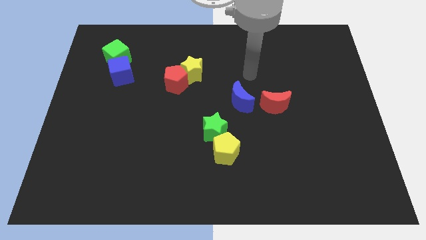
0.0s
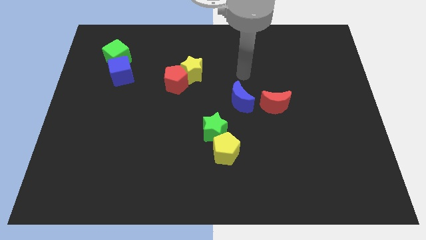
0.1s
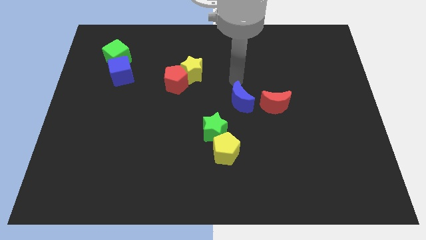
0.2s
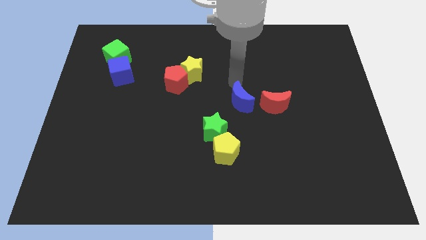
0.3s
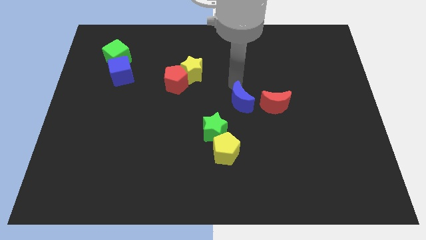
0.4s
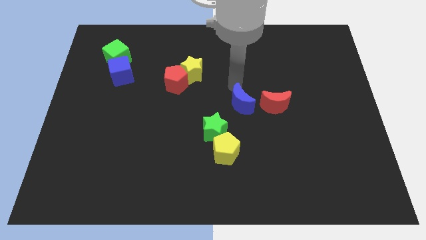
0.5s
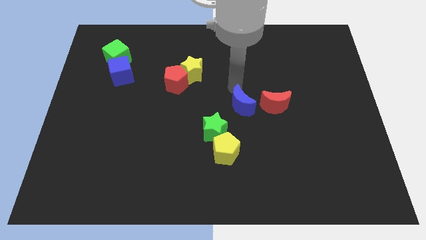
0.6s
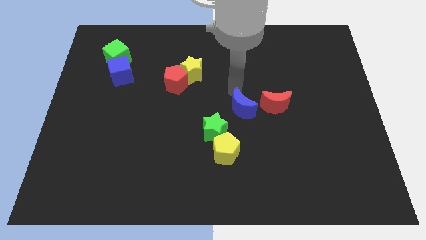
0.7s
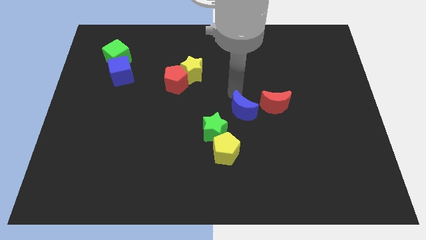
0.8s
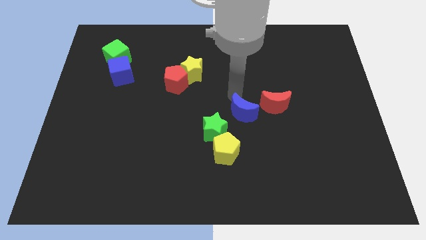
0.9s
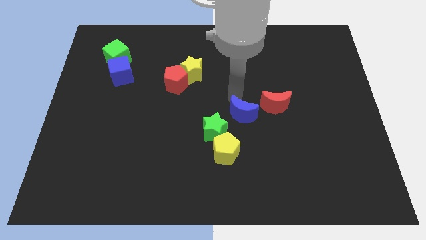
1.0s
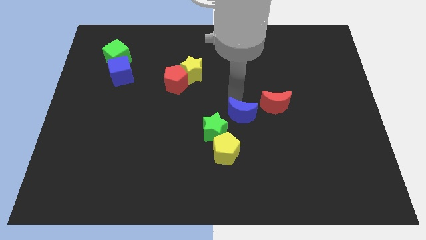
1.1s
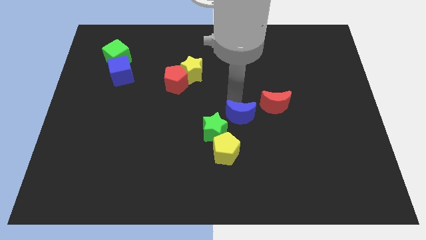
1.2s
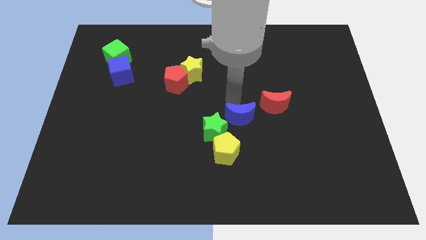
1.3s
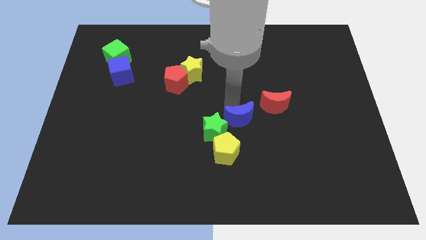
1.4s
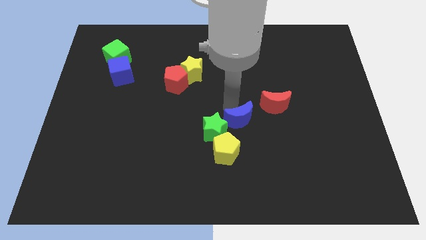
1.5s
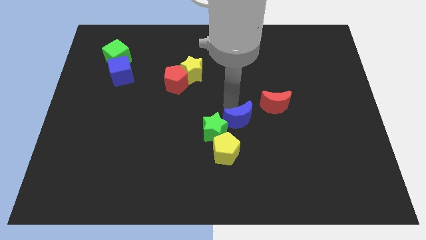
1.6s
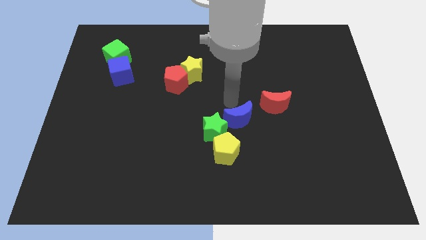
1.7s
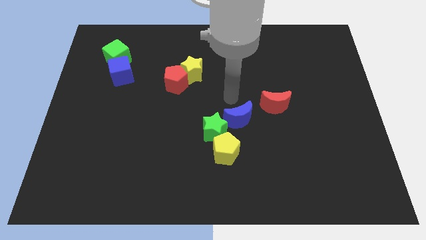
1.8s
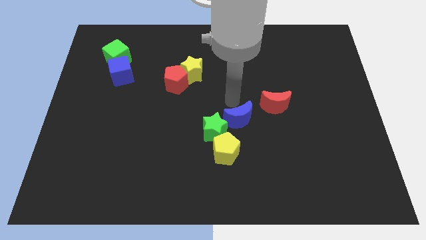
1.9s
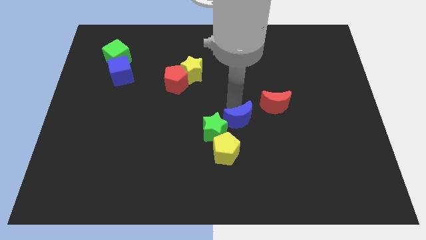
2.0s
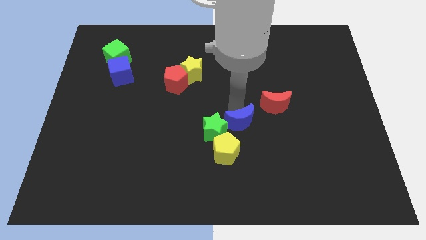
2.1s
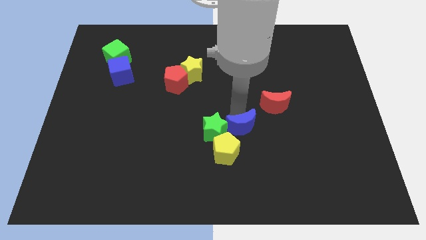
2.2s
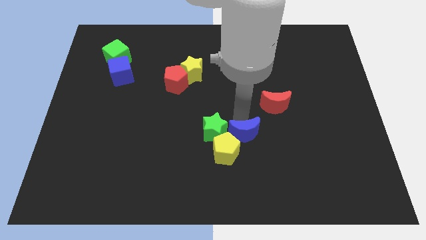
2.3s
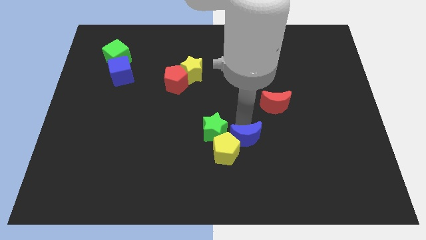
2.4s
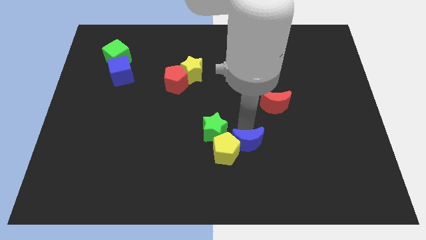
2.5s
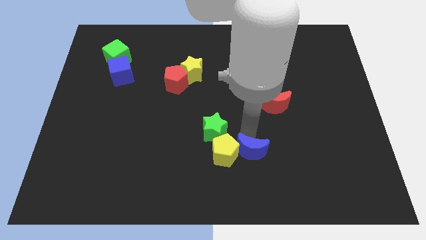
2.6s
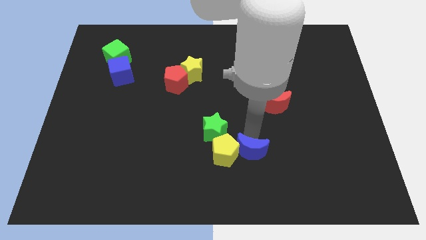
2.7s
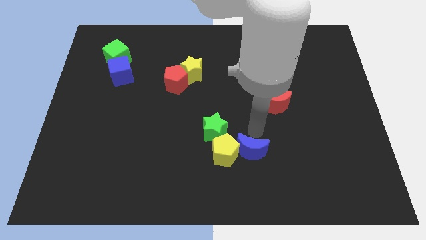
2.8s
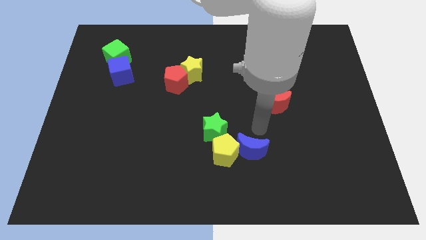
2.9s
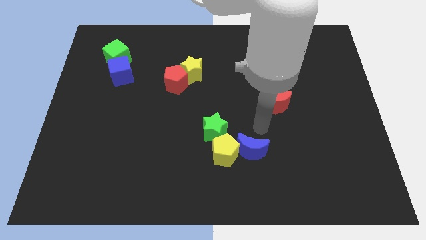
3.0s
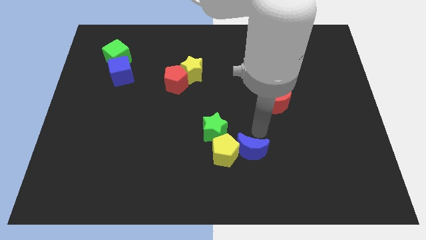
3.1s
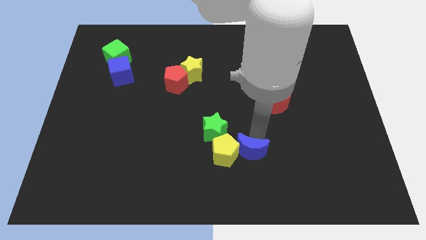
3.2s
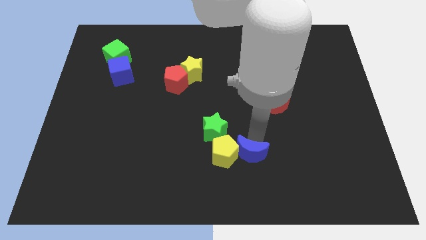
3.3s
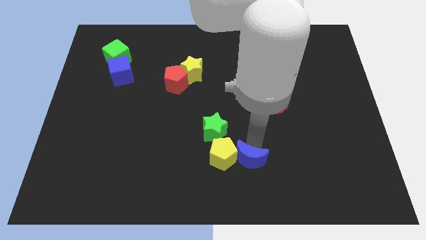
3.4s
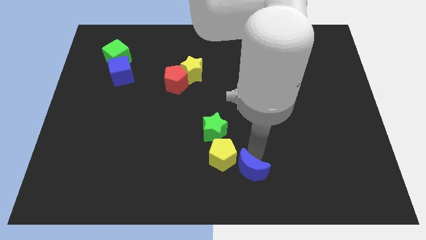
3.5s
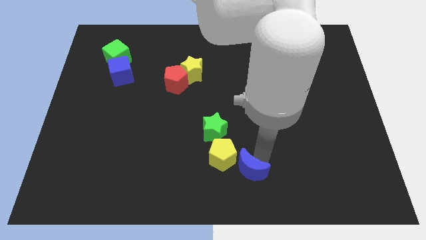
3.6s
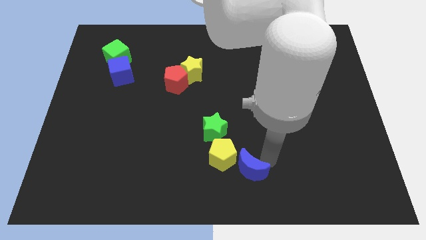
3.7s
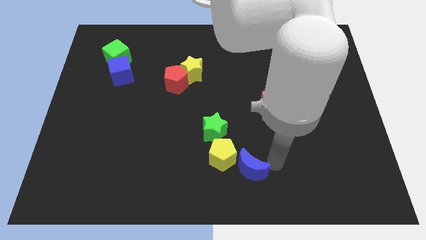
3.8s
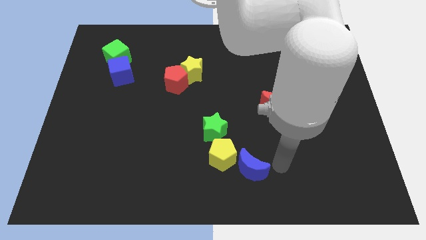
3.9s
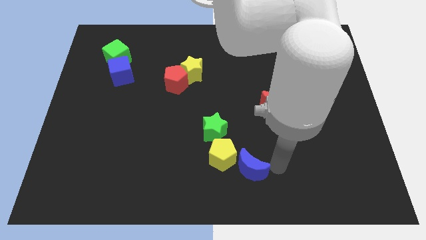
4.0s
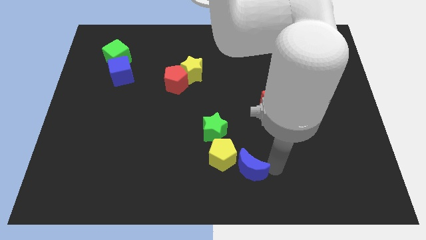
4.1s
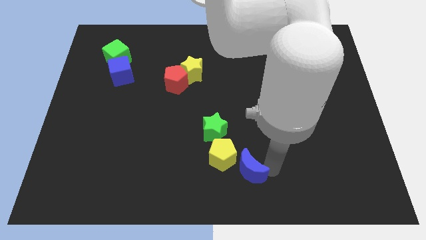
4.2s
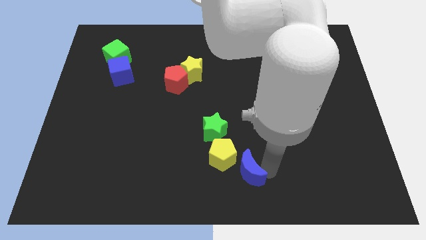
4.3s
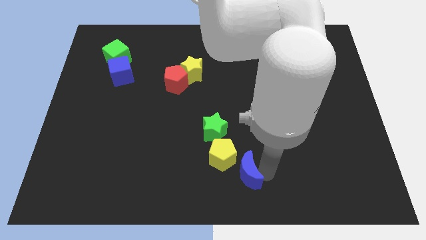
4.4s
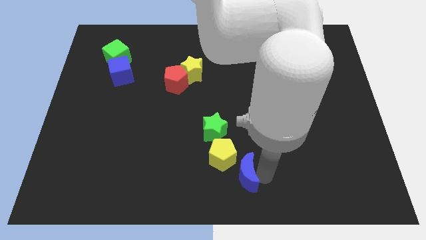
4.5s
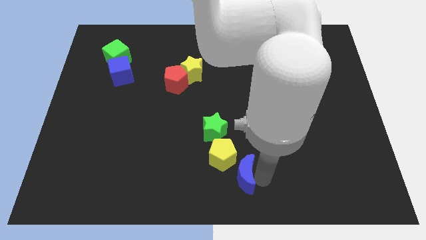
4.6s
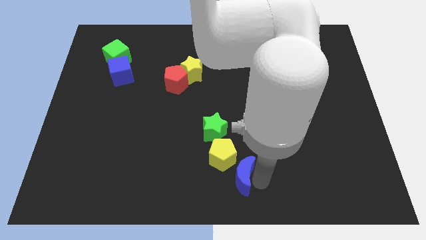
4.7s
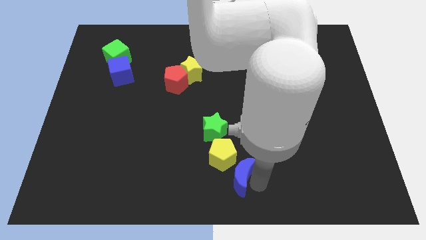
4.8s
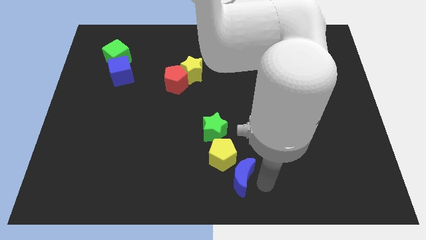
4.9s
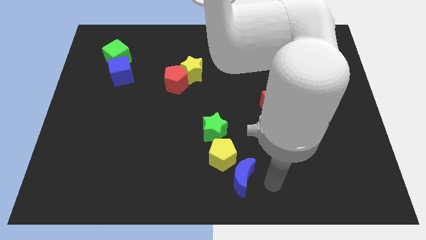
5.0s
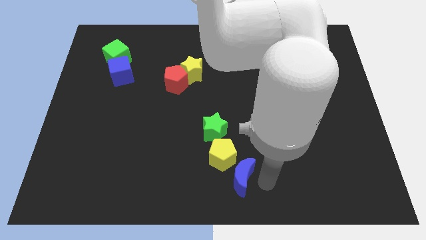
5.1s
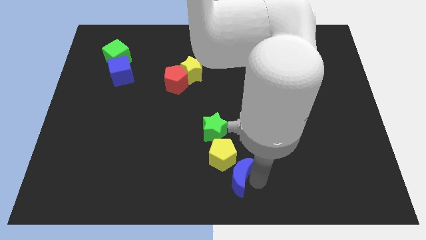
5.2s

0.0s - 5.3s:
move the blue moon below the green star

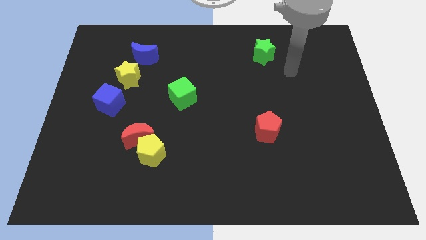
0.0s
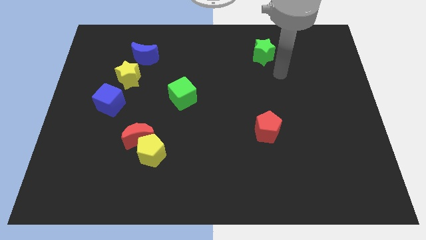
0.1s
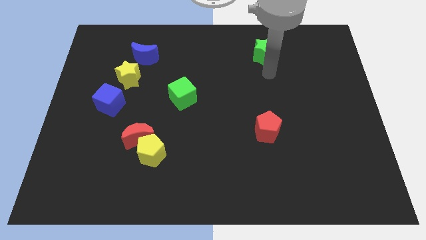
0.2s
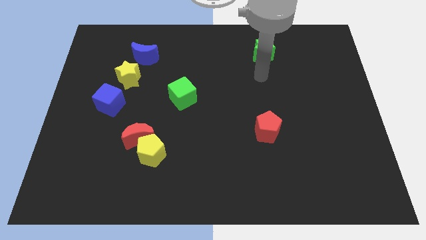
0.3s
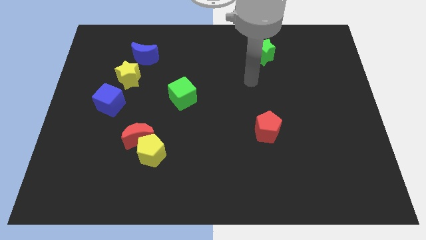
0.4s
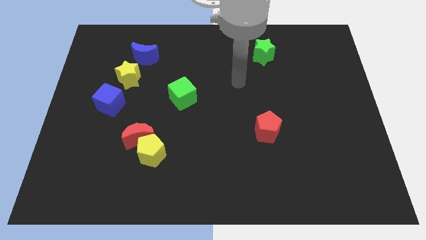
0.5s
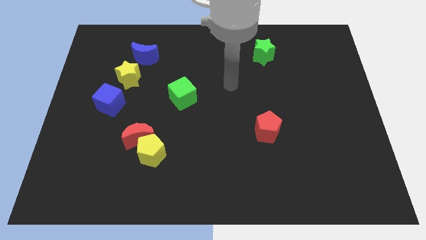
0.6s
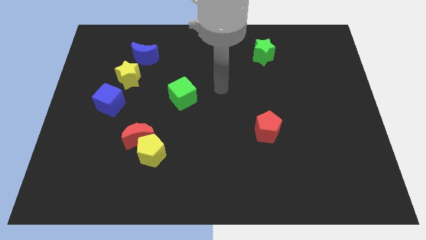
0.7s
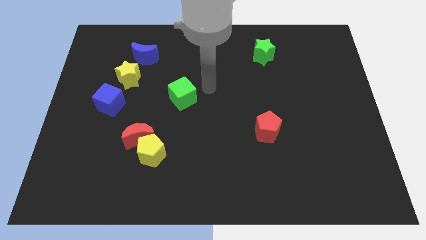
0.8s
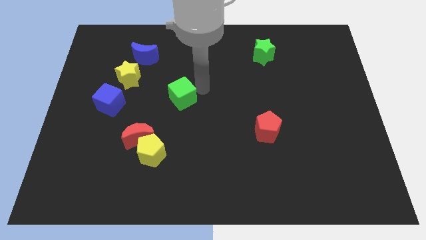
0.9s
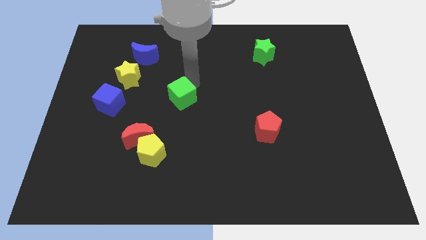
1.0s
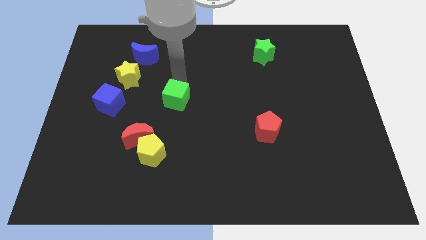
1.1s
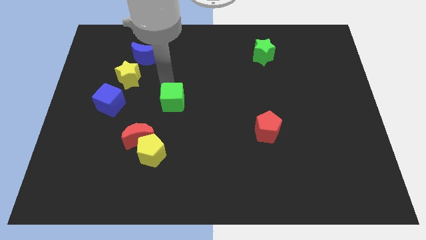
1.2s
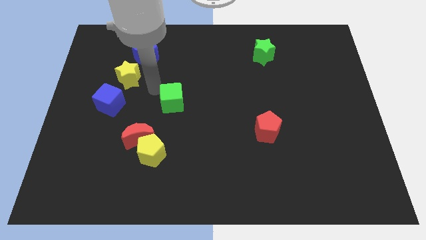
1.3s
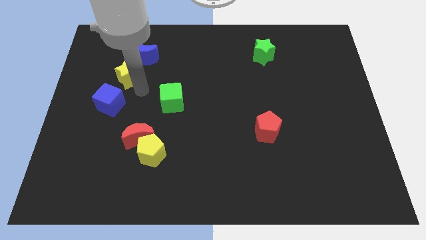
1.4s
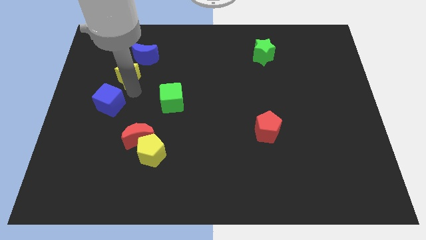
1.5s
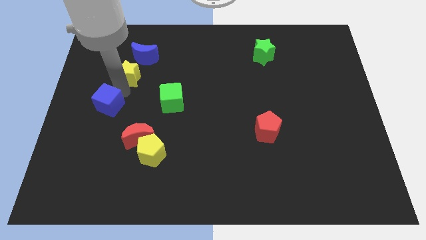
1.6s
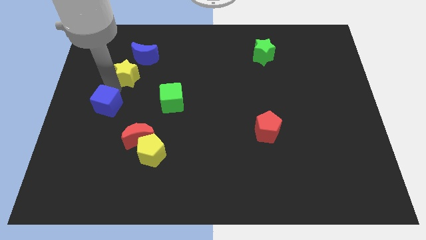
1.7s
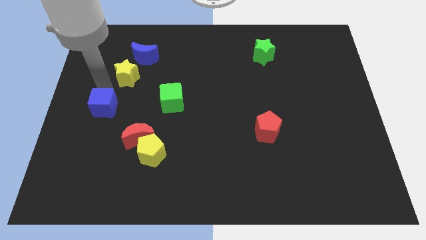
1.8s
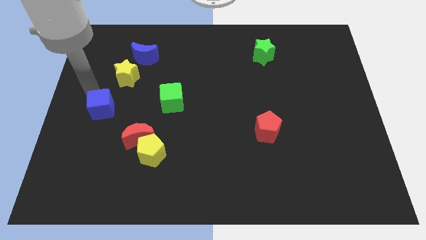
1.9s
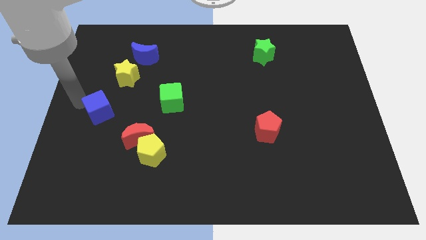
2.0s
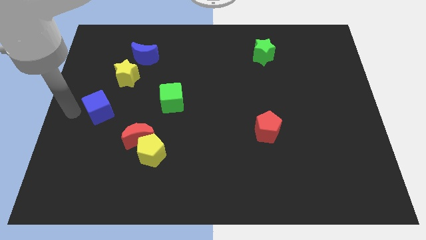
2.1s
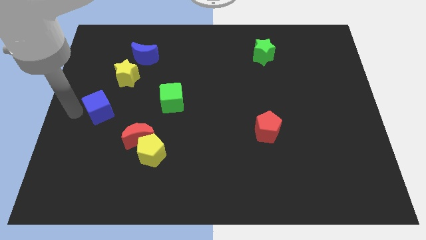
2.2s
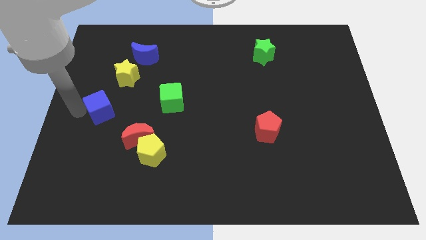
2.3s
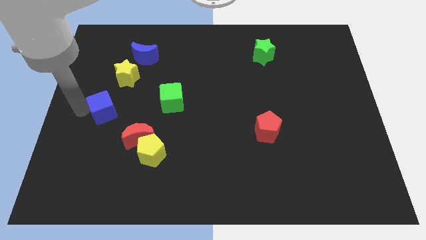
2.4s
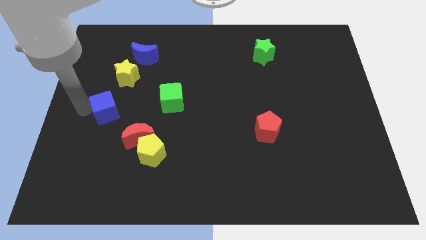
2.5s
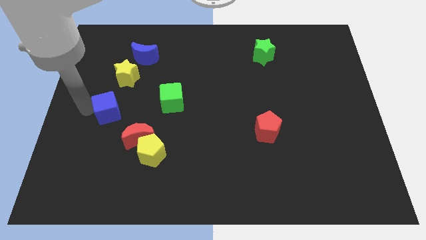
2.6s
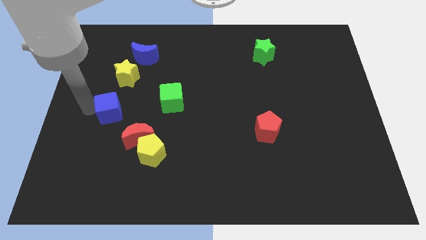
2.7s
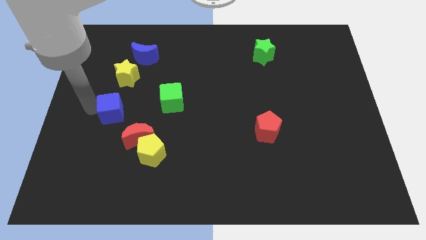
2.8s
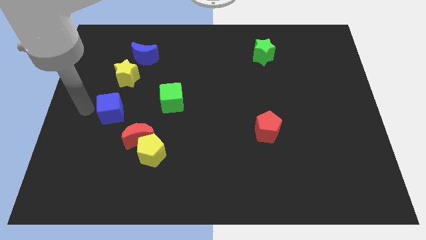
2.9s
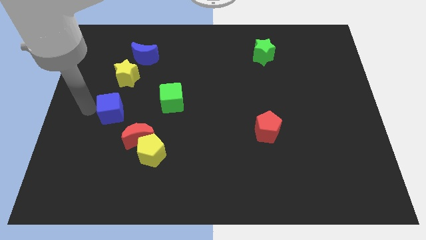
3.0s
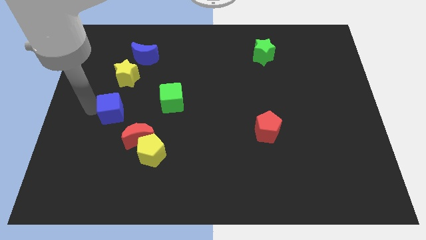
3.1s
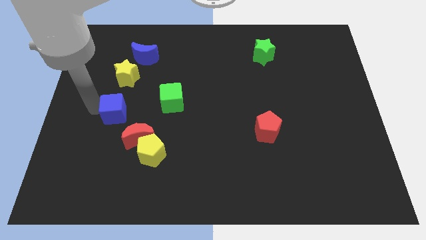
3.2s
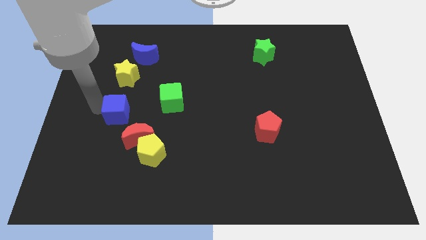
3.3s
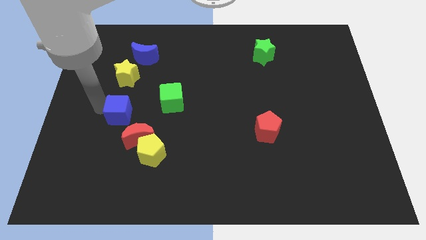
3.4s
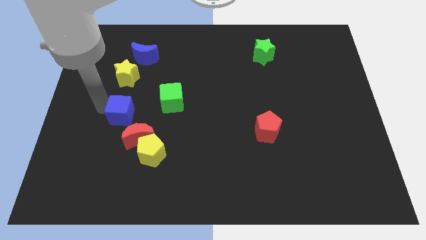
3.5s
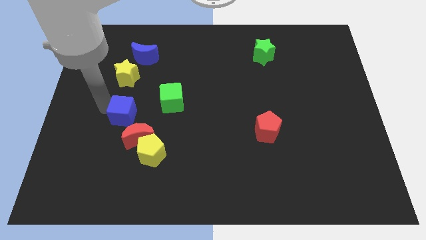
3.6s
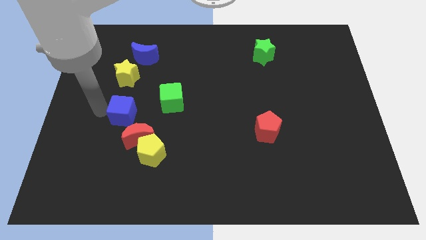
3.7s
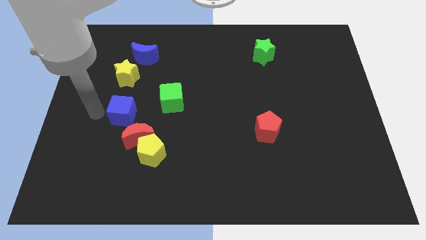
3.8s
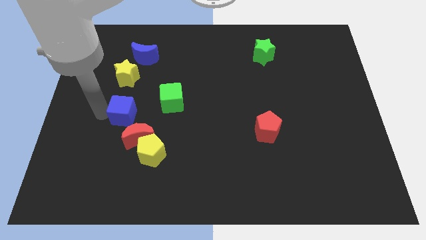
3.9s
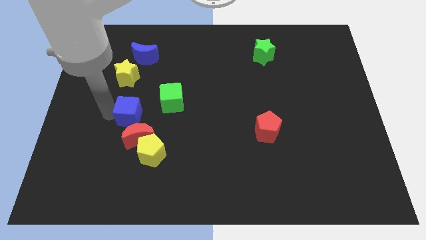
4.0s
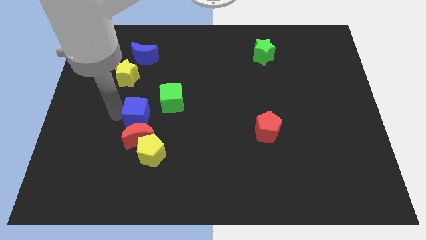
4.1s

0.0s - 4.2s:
put the blue cube above the yellow pentagon
